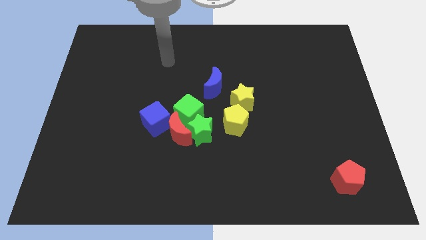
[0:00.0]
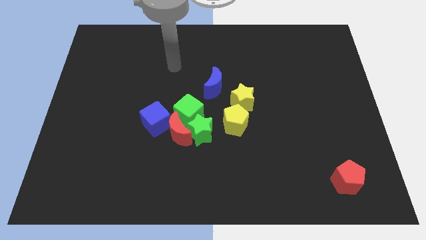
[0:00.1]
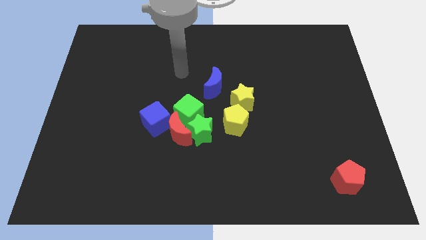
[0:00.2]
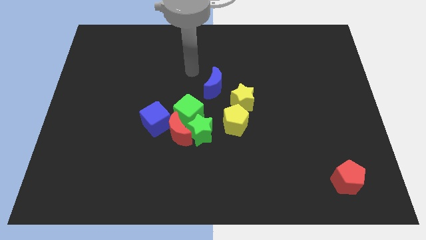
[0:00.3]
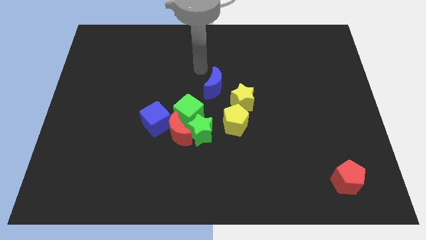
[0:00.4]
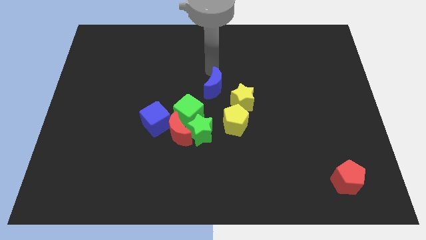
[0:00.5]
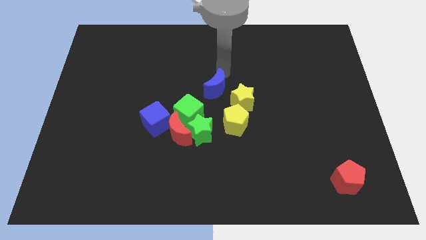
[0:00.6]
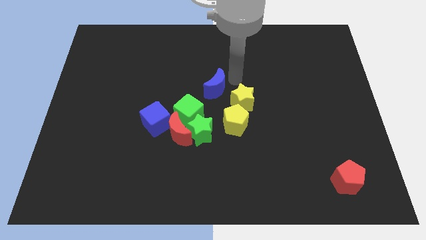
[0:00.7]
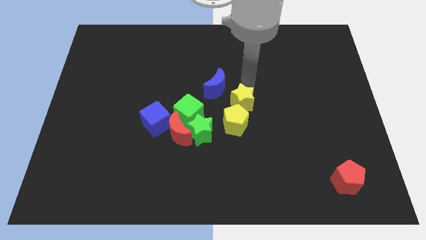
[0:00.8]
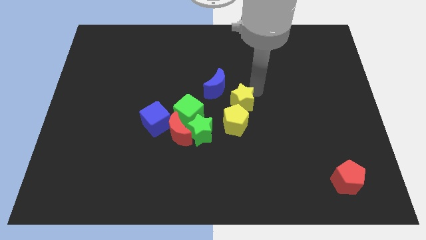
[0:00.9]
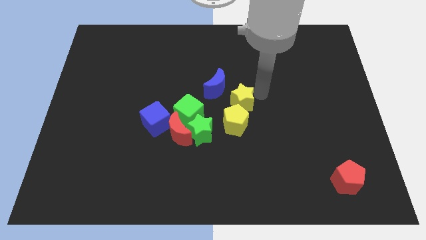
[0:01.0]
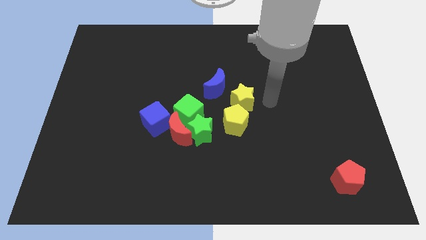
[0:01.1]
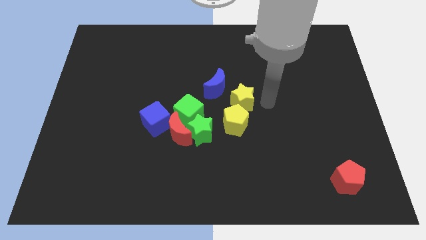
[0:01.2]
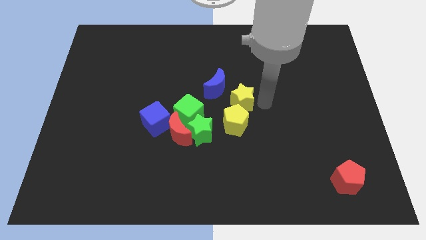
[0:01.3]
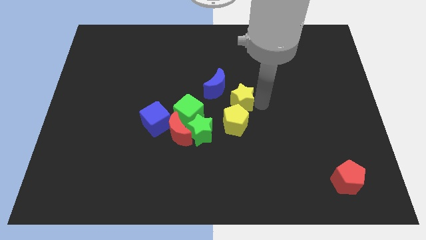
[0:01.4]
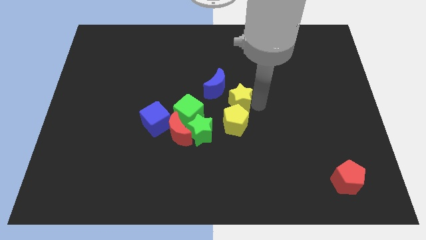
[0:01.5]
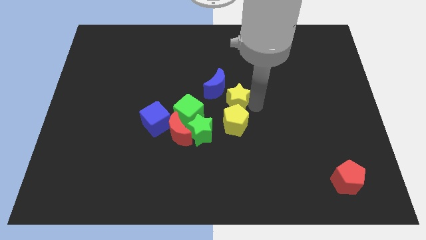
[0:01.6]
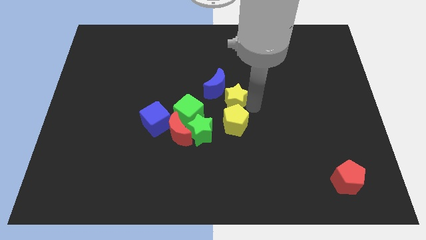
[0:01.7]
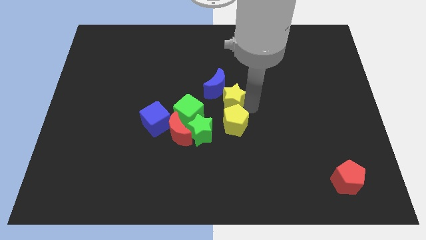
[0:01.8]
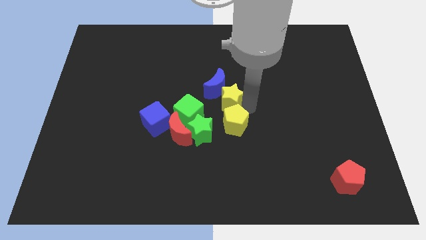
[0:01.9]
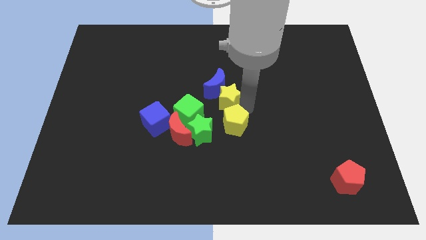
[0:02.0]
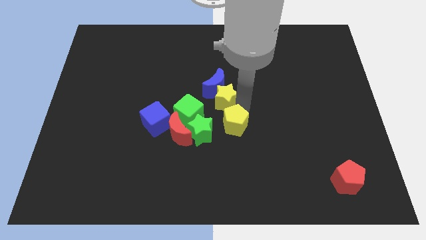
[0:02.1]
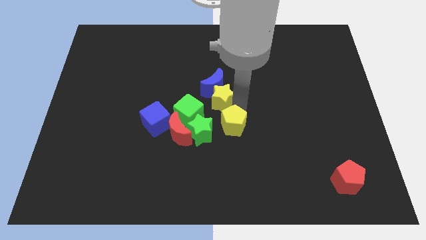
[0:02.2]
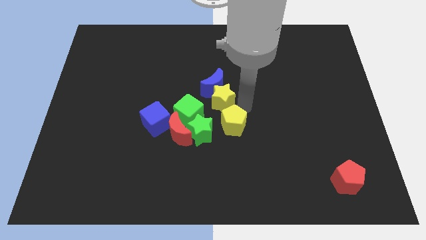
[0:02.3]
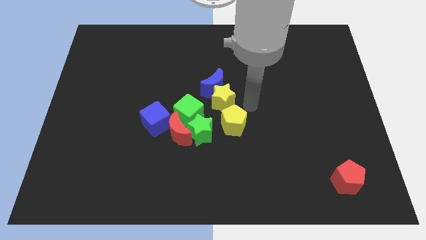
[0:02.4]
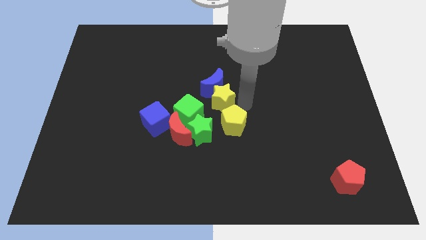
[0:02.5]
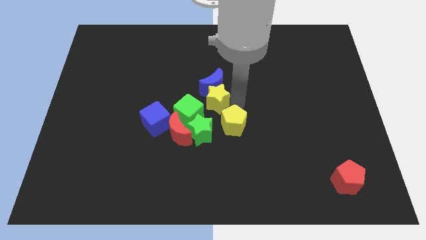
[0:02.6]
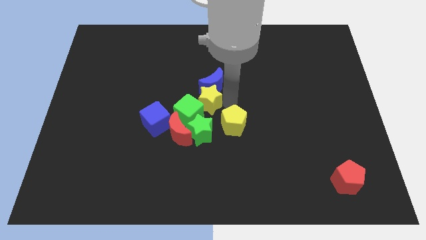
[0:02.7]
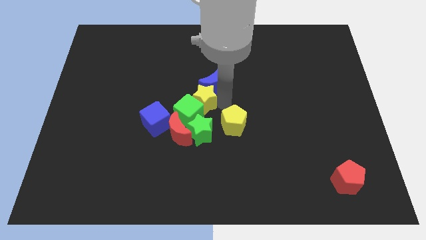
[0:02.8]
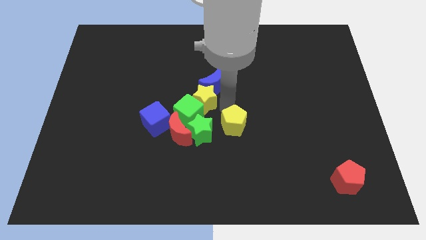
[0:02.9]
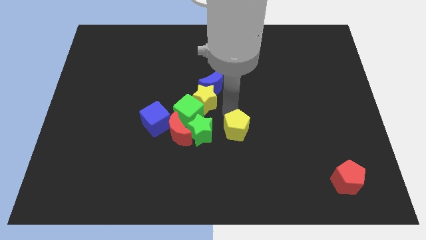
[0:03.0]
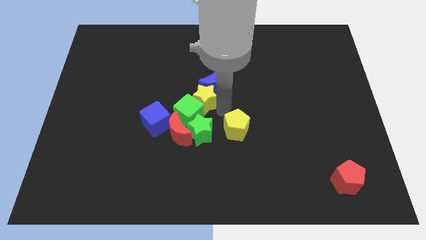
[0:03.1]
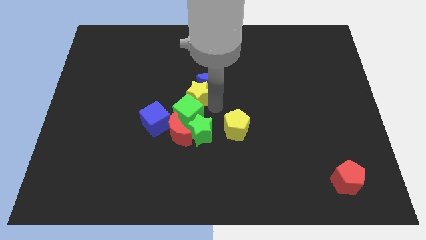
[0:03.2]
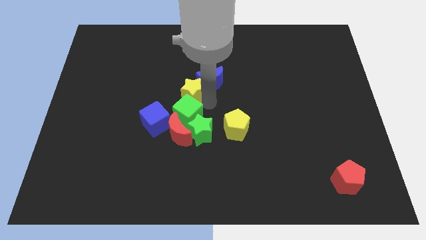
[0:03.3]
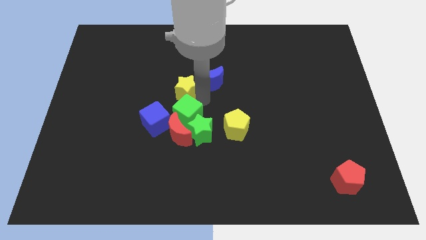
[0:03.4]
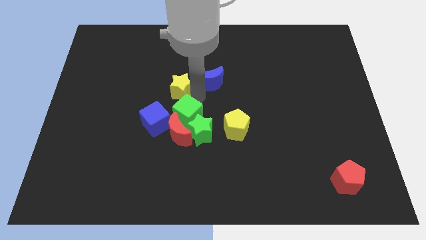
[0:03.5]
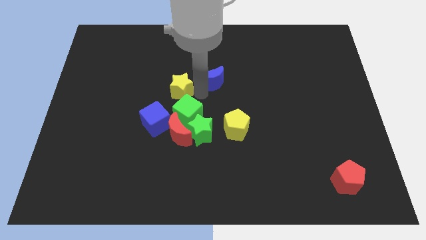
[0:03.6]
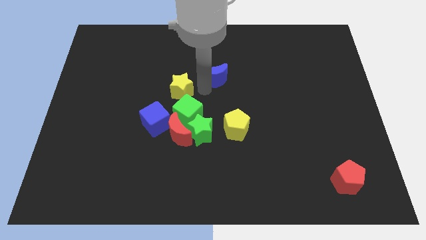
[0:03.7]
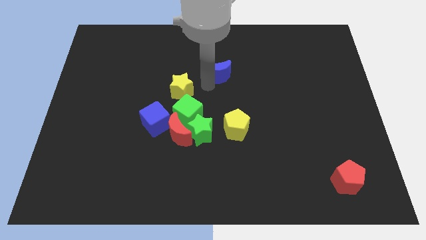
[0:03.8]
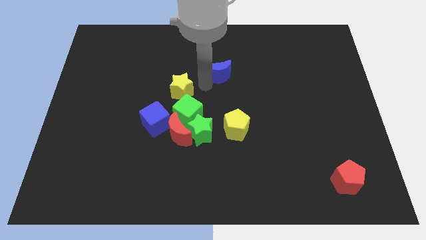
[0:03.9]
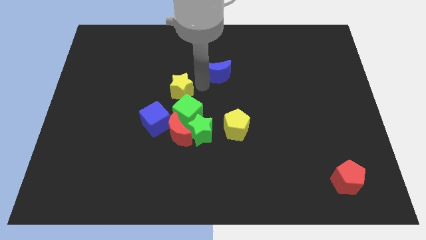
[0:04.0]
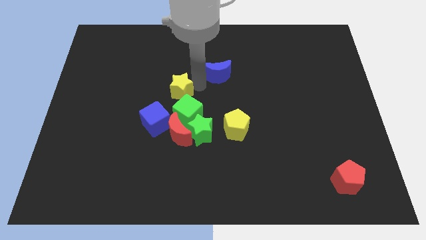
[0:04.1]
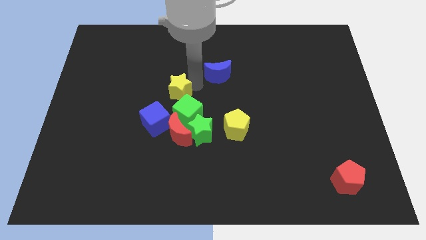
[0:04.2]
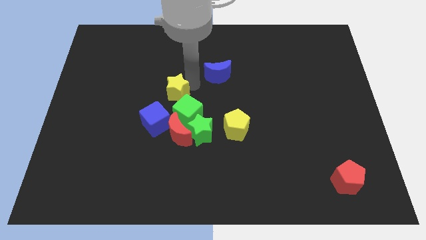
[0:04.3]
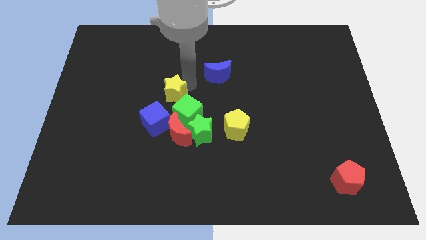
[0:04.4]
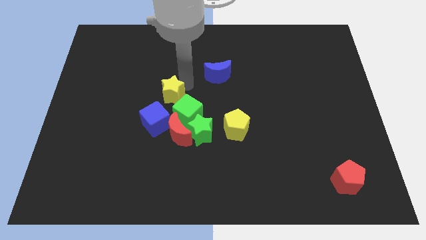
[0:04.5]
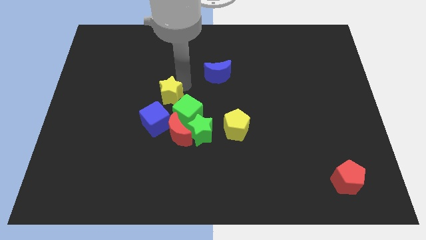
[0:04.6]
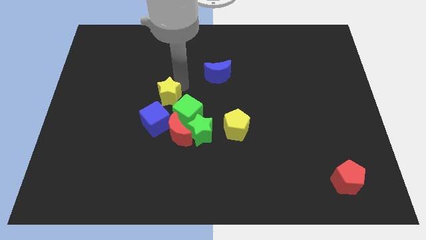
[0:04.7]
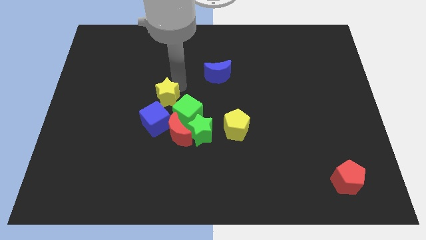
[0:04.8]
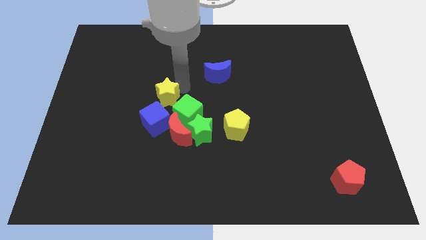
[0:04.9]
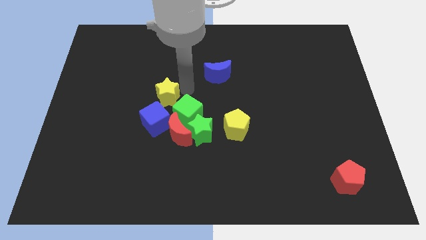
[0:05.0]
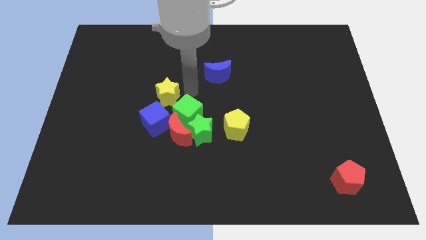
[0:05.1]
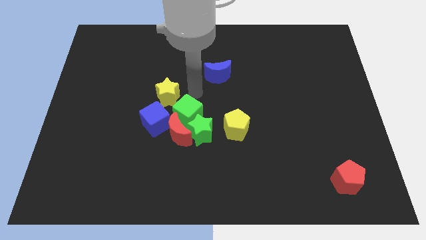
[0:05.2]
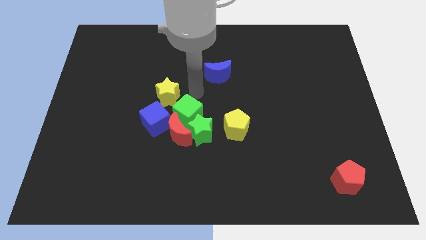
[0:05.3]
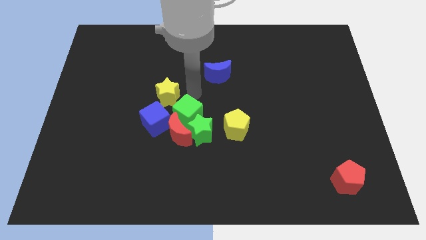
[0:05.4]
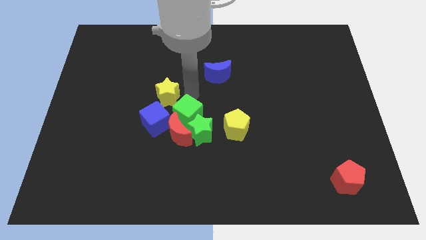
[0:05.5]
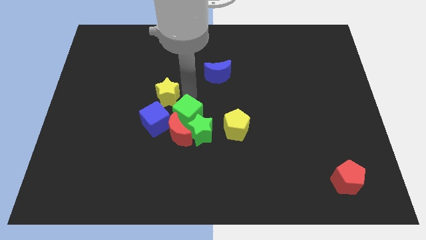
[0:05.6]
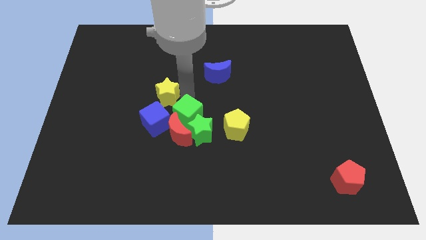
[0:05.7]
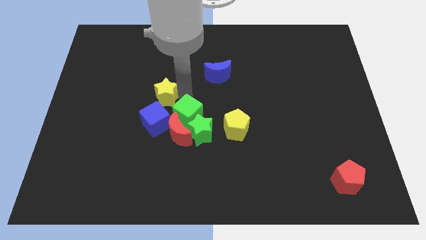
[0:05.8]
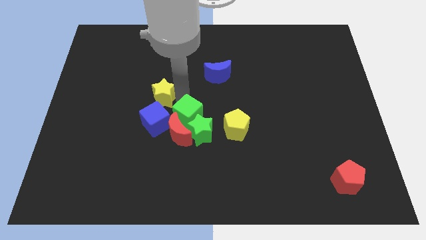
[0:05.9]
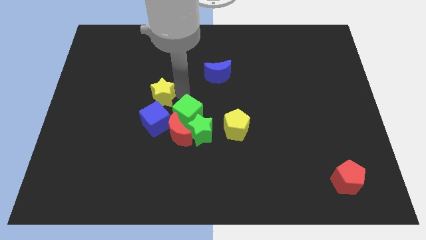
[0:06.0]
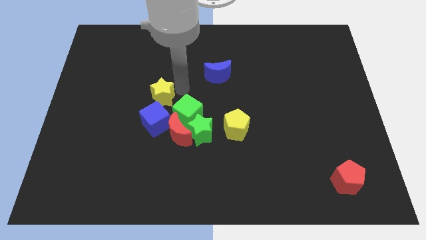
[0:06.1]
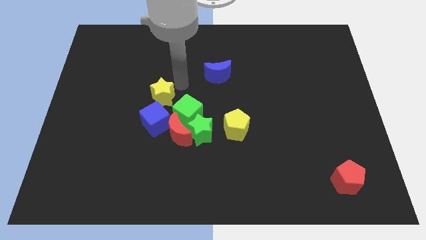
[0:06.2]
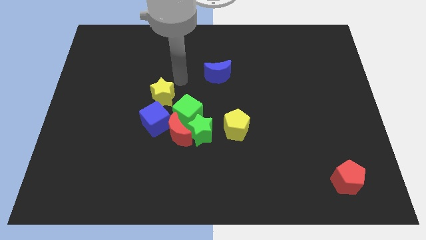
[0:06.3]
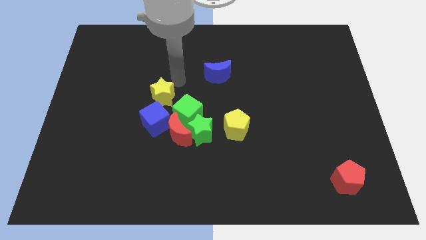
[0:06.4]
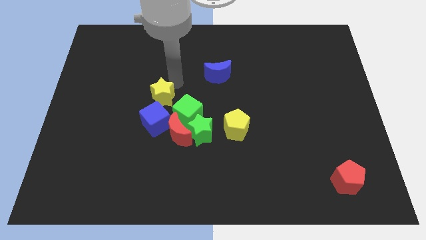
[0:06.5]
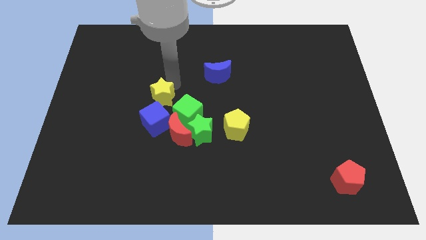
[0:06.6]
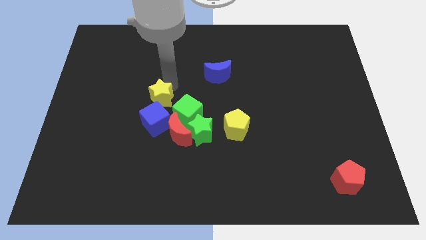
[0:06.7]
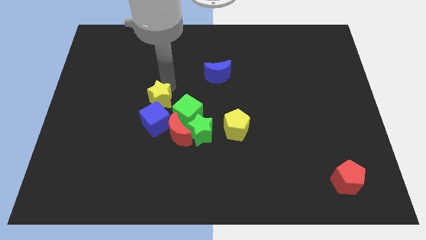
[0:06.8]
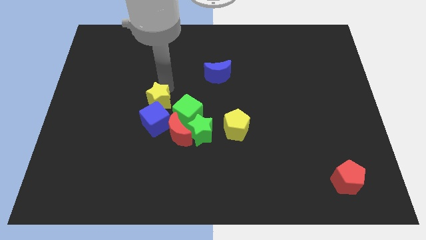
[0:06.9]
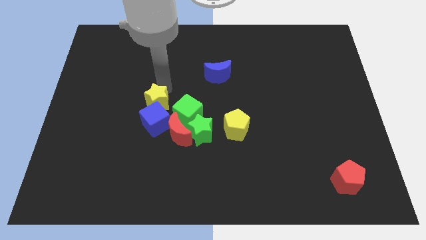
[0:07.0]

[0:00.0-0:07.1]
move the yellow star to the blue cube

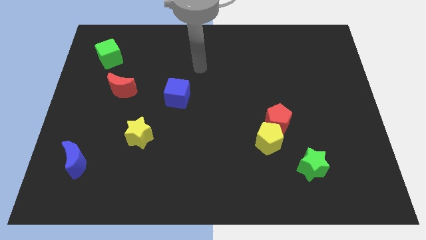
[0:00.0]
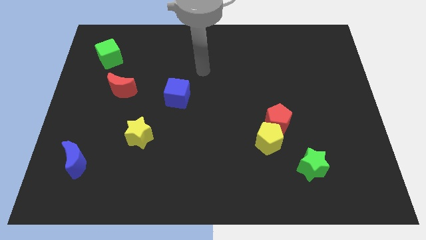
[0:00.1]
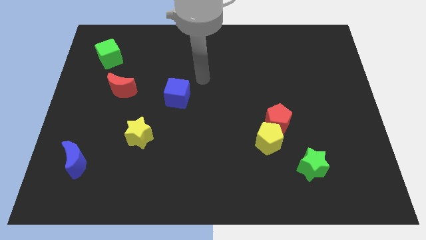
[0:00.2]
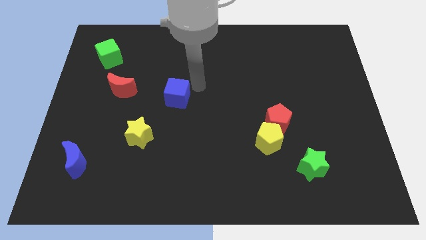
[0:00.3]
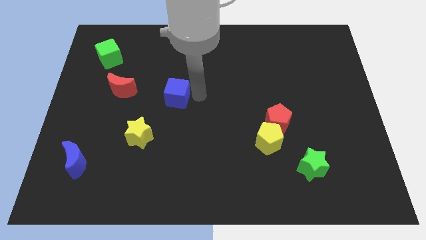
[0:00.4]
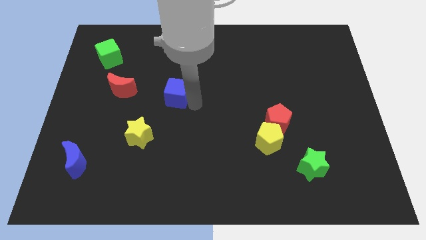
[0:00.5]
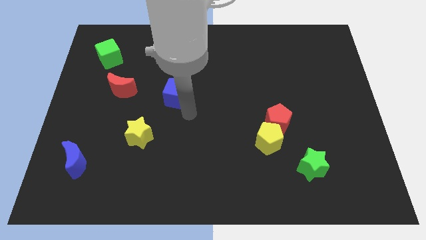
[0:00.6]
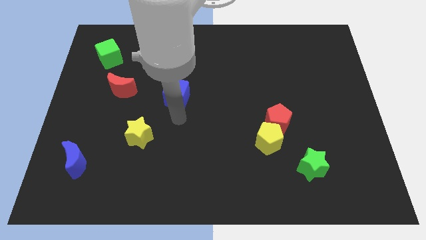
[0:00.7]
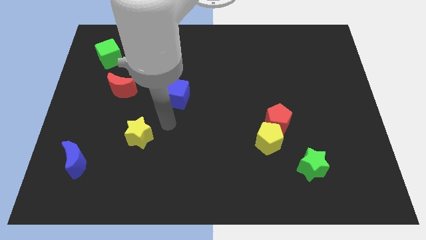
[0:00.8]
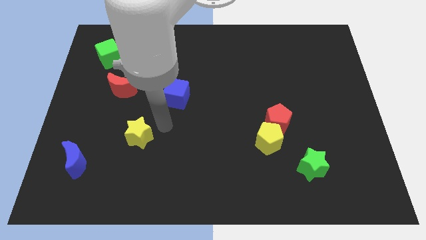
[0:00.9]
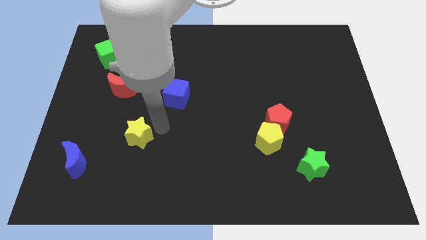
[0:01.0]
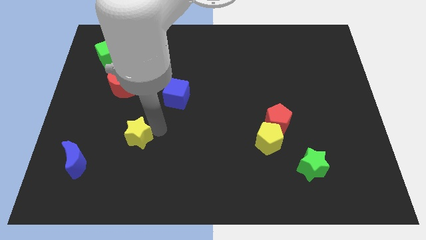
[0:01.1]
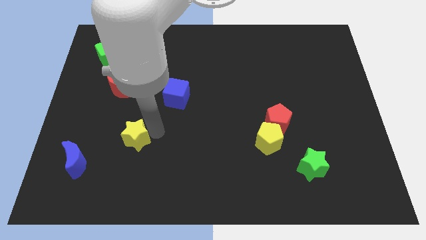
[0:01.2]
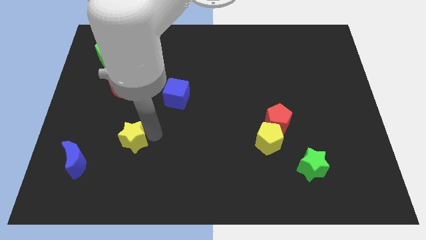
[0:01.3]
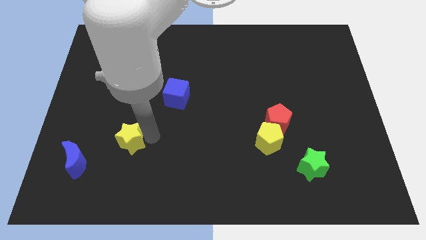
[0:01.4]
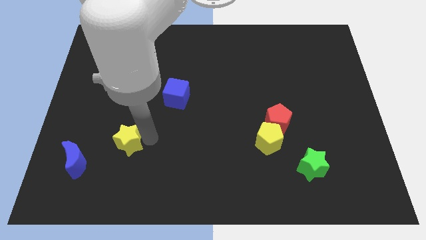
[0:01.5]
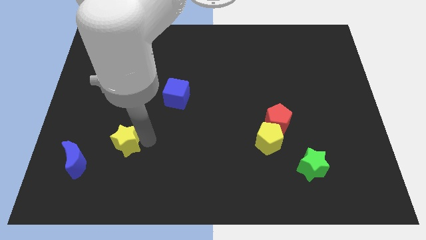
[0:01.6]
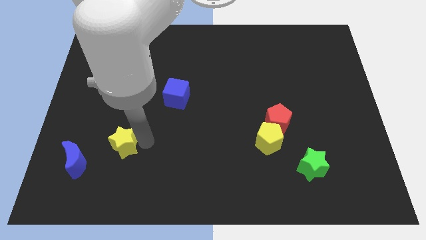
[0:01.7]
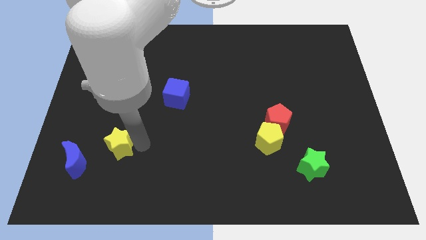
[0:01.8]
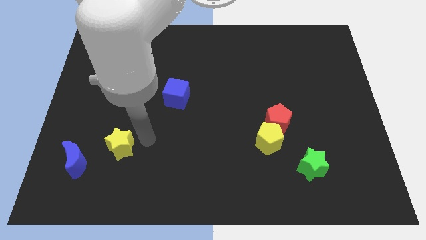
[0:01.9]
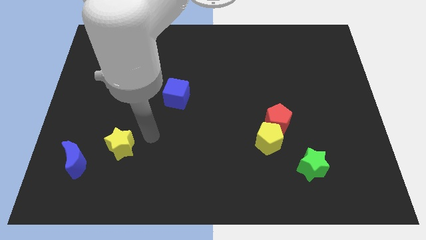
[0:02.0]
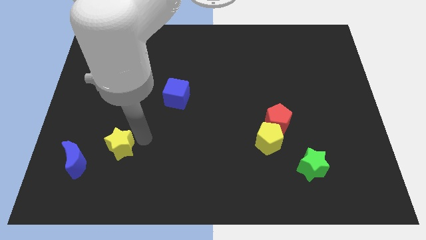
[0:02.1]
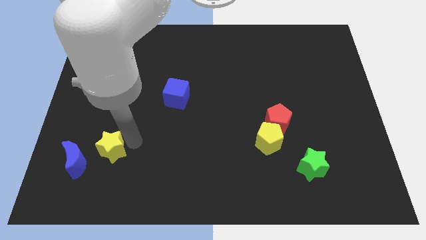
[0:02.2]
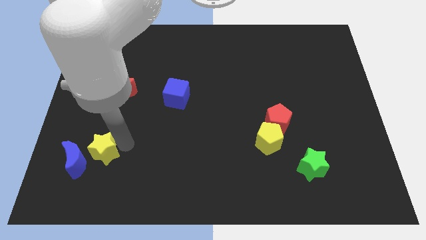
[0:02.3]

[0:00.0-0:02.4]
slide the yellow star next to the blue moon
